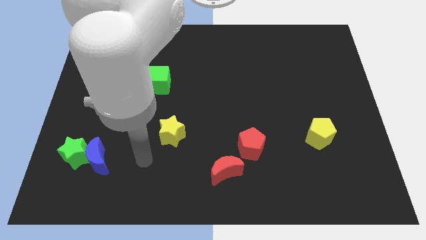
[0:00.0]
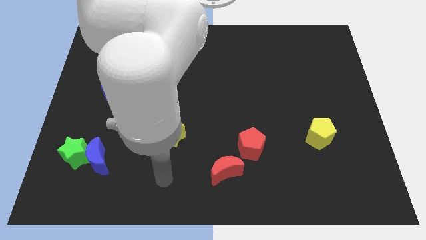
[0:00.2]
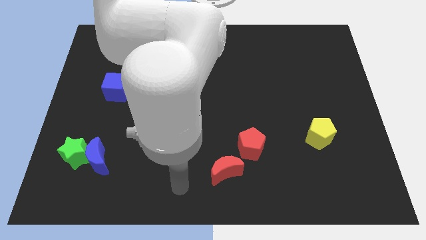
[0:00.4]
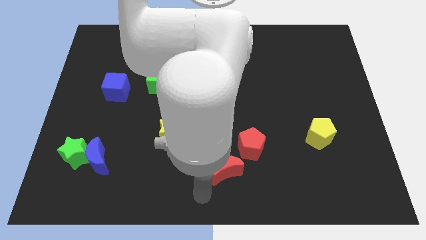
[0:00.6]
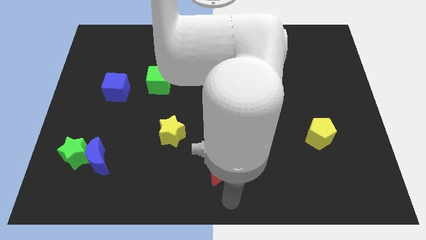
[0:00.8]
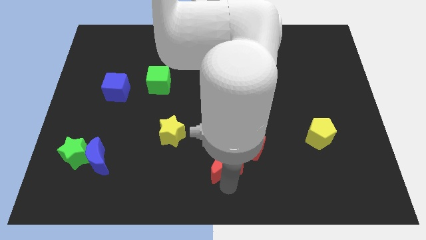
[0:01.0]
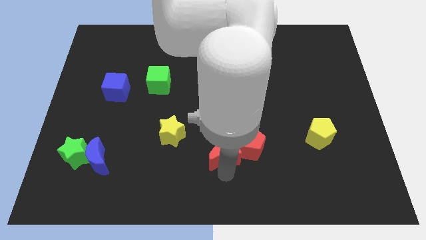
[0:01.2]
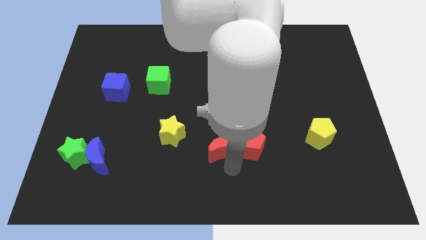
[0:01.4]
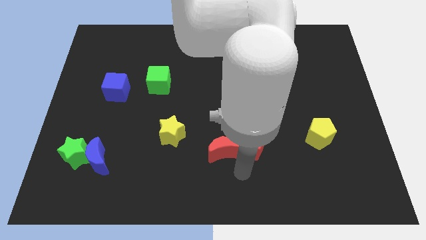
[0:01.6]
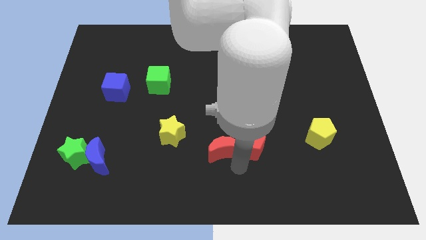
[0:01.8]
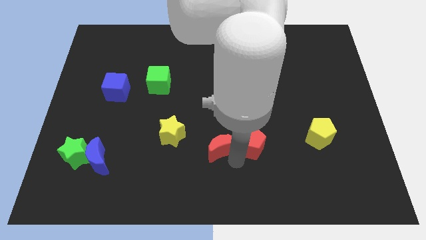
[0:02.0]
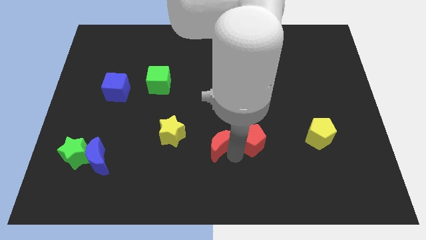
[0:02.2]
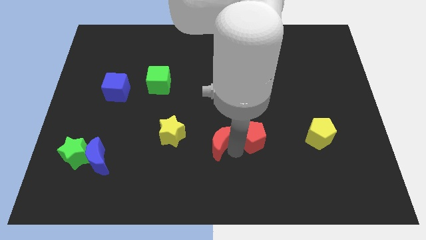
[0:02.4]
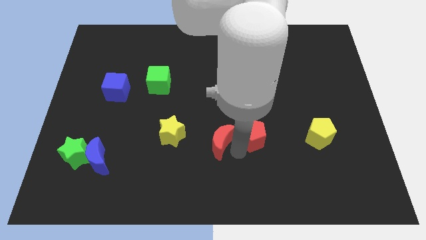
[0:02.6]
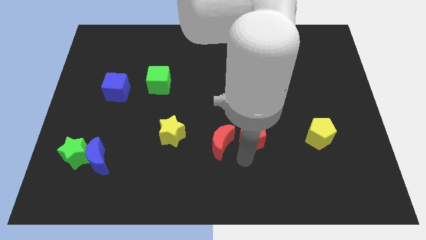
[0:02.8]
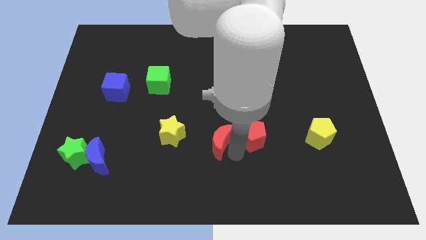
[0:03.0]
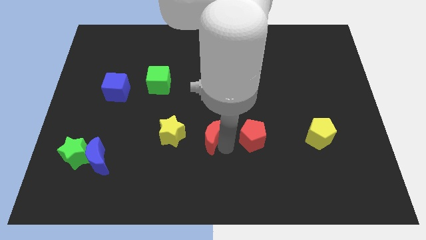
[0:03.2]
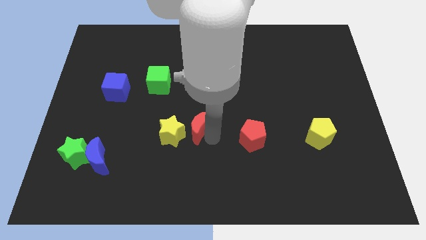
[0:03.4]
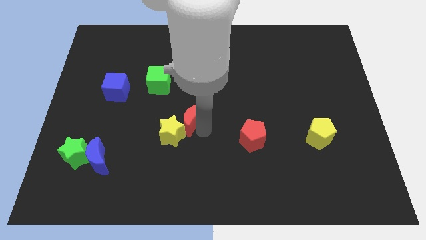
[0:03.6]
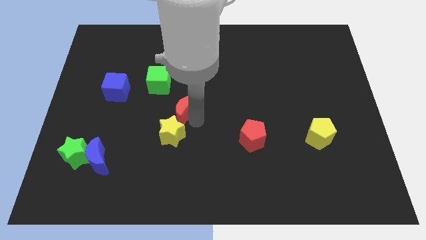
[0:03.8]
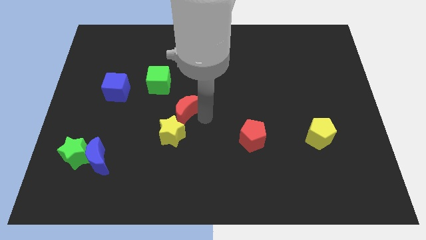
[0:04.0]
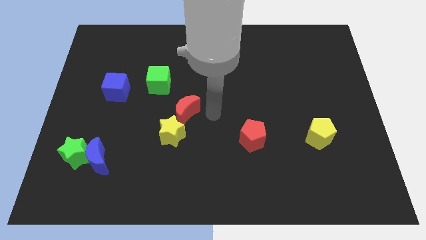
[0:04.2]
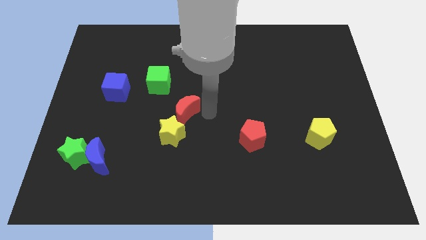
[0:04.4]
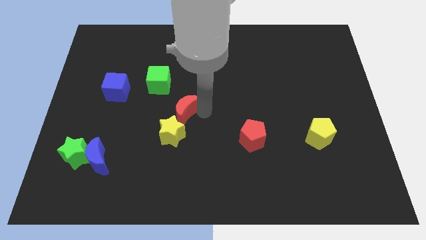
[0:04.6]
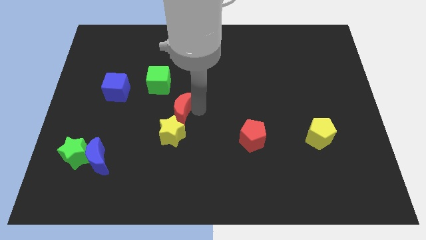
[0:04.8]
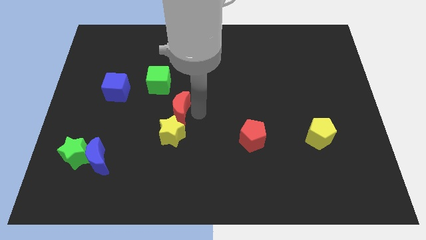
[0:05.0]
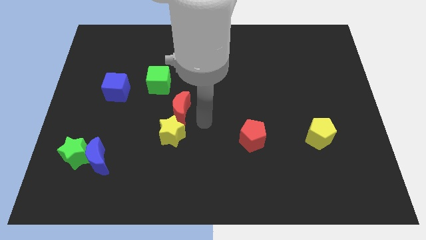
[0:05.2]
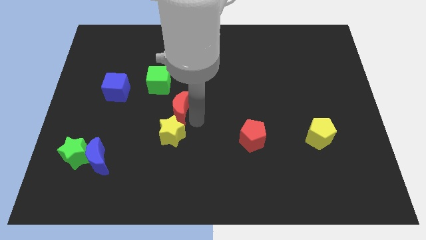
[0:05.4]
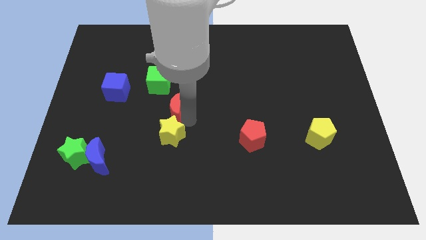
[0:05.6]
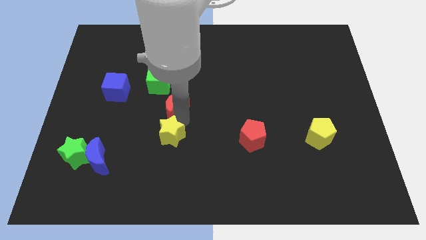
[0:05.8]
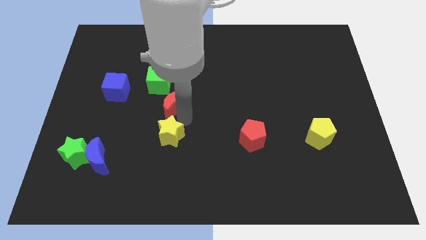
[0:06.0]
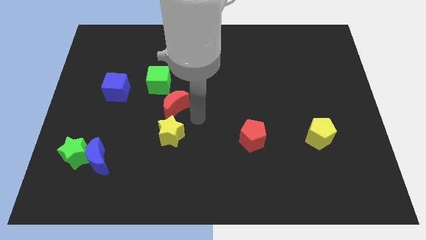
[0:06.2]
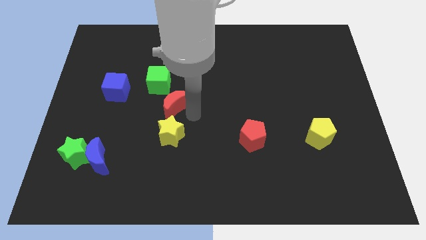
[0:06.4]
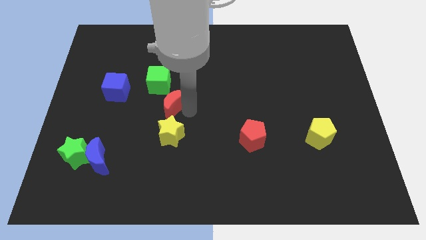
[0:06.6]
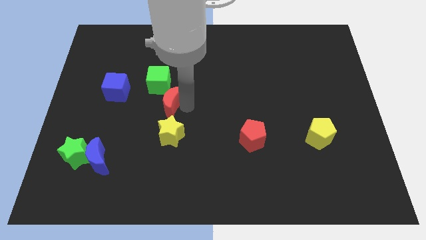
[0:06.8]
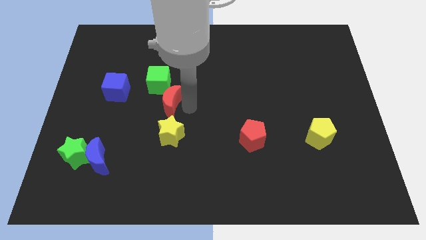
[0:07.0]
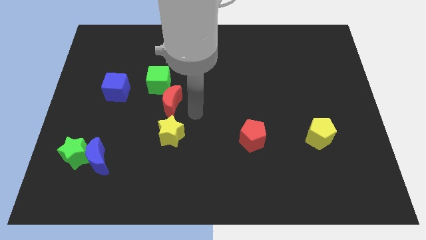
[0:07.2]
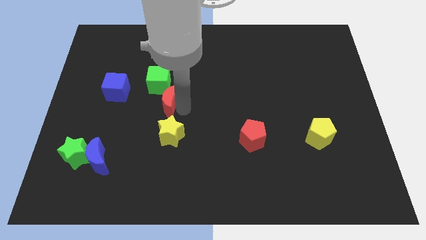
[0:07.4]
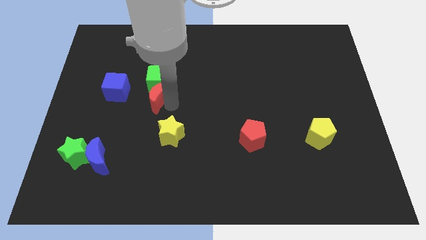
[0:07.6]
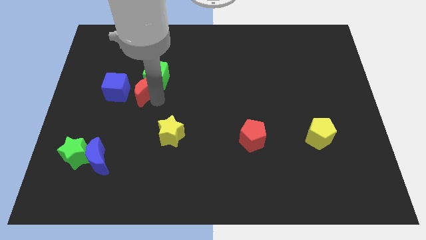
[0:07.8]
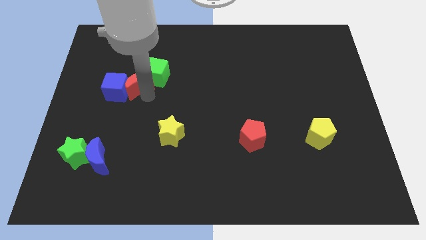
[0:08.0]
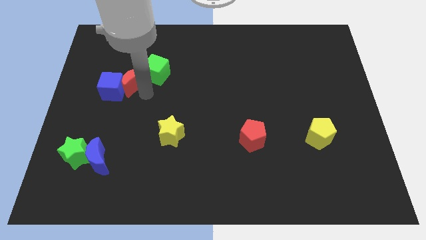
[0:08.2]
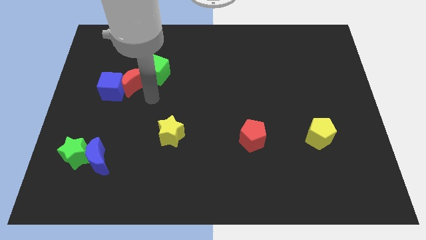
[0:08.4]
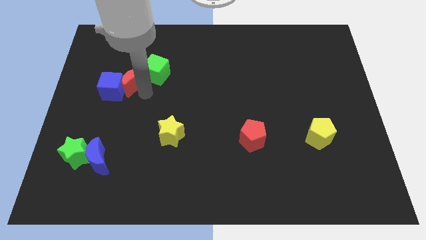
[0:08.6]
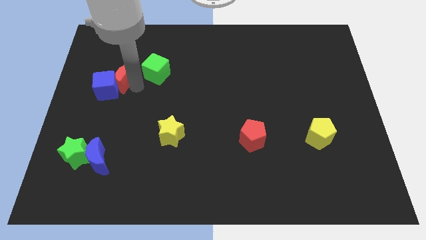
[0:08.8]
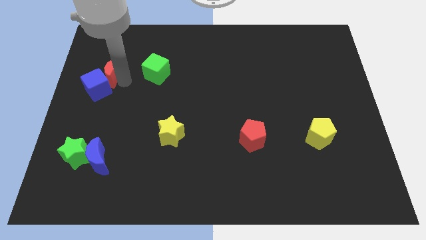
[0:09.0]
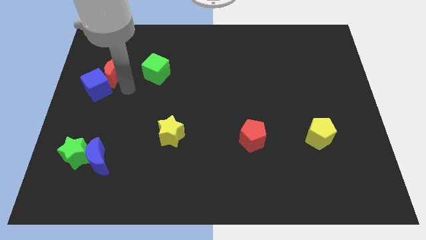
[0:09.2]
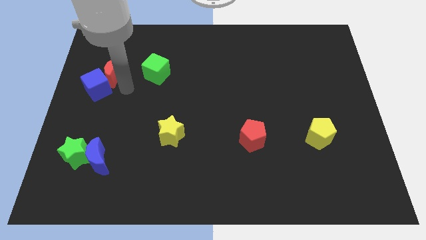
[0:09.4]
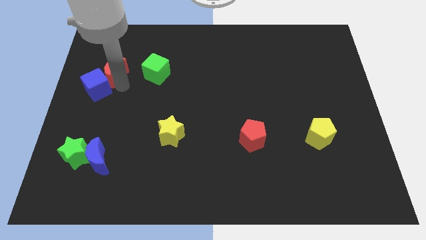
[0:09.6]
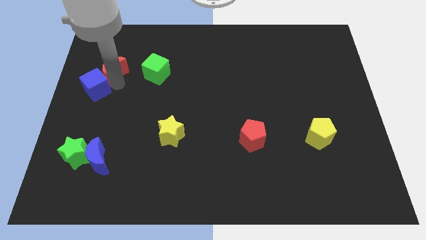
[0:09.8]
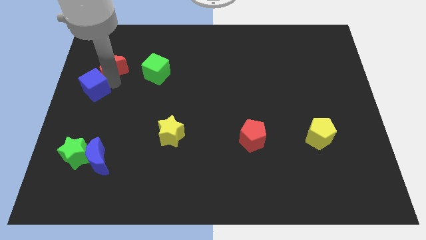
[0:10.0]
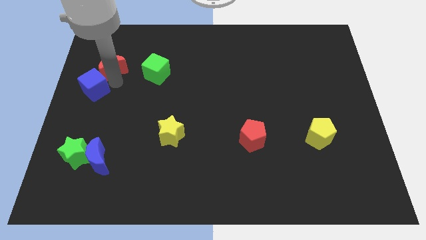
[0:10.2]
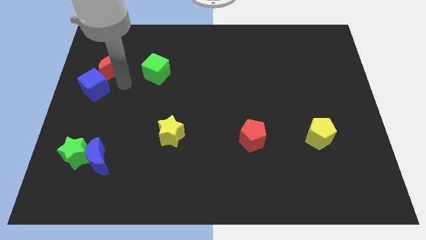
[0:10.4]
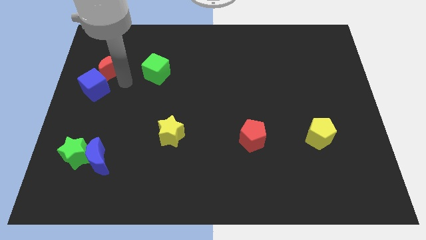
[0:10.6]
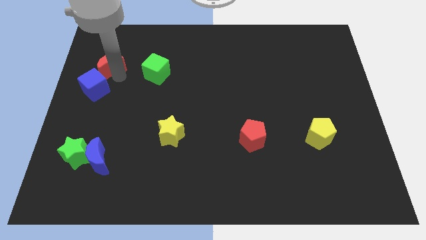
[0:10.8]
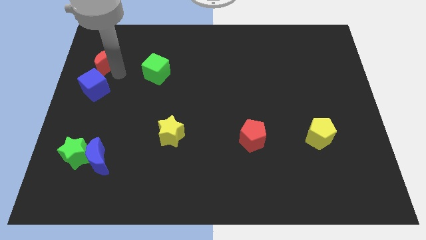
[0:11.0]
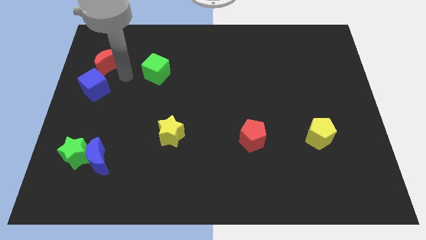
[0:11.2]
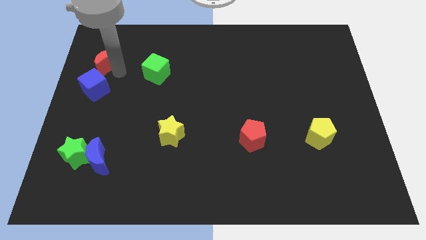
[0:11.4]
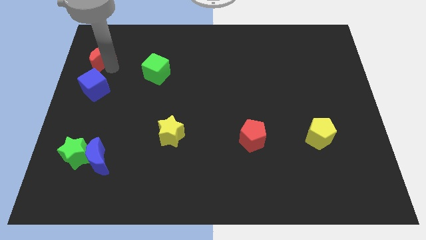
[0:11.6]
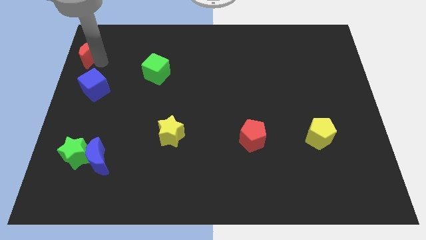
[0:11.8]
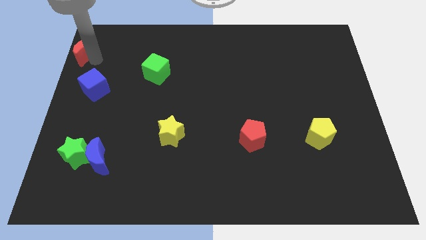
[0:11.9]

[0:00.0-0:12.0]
put the red moon to the upper left corner

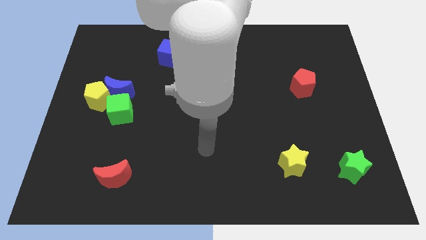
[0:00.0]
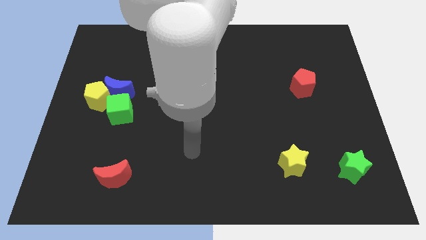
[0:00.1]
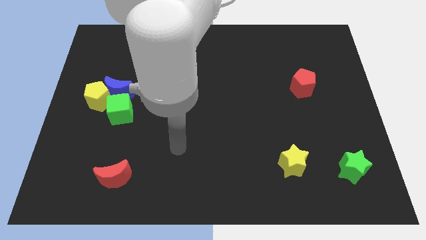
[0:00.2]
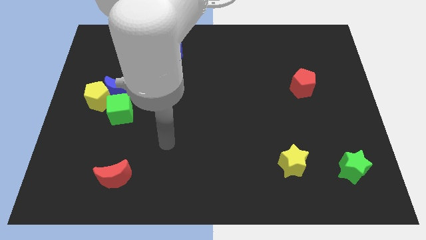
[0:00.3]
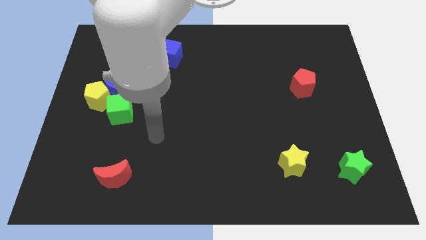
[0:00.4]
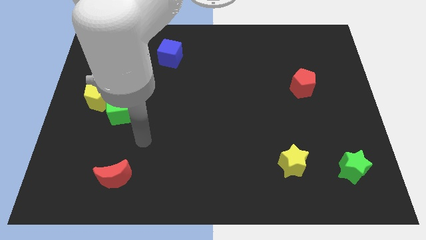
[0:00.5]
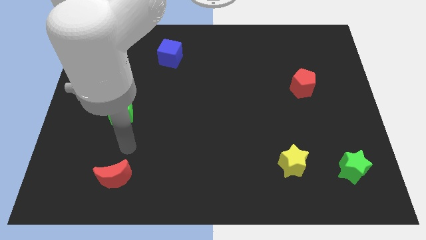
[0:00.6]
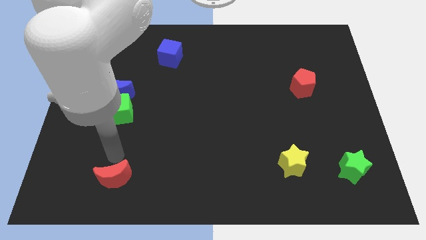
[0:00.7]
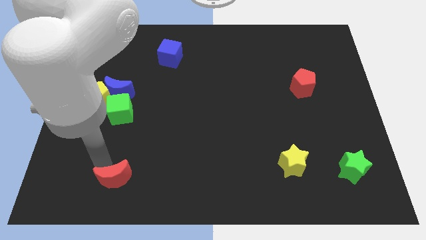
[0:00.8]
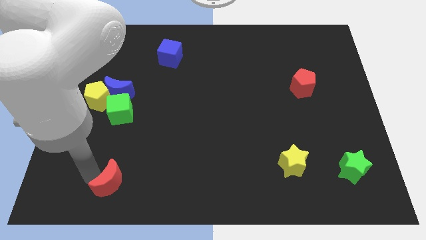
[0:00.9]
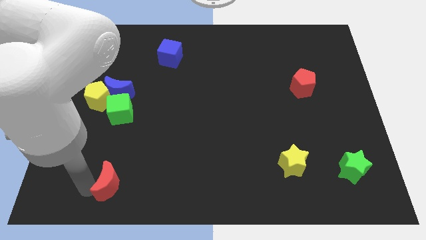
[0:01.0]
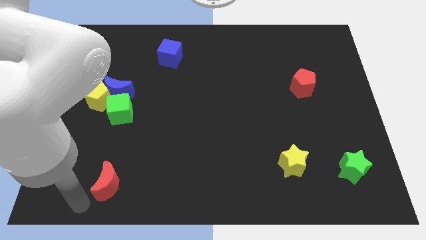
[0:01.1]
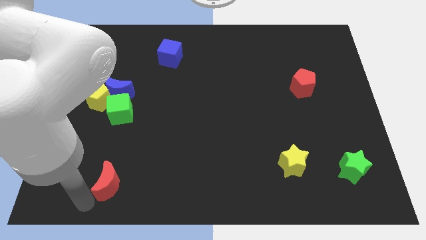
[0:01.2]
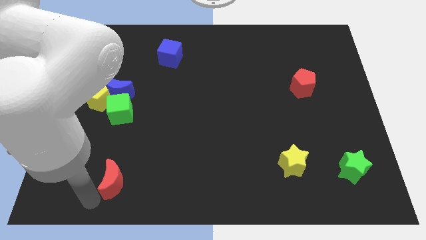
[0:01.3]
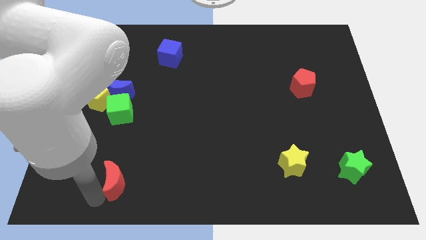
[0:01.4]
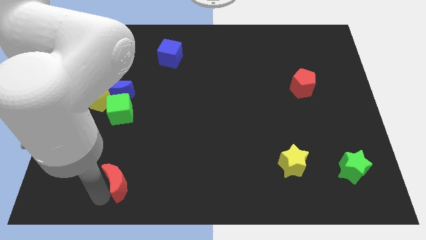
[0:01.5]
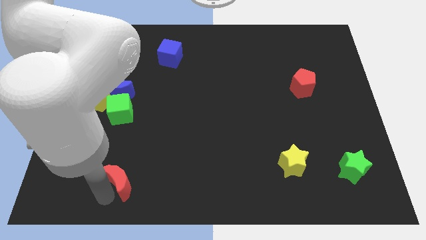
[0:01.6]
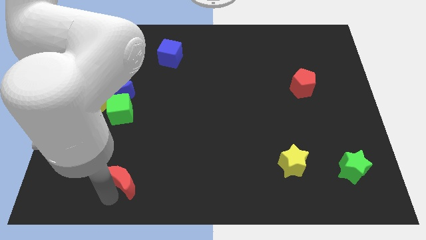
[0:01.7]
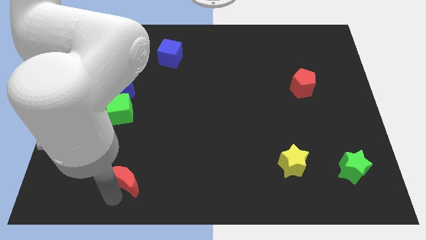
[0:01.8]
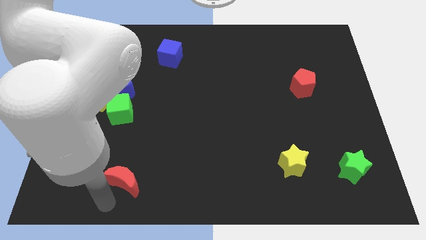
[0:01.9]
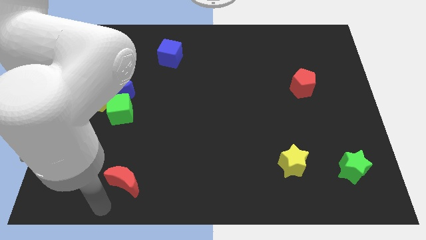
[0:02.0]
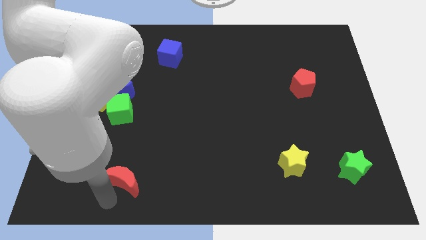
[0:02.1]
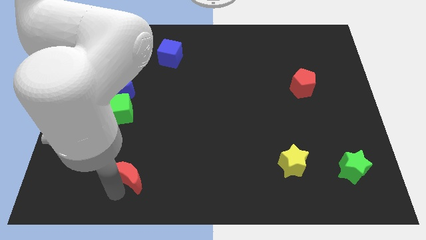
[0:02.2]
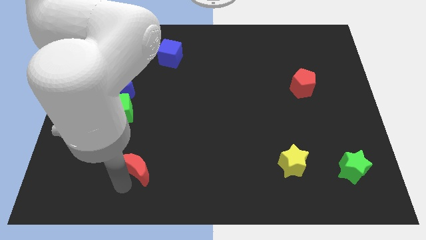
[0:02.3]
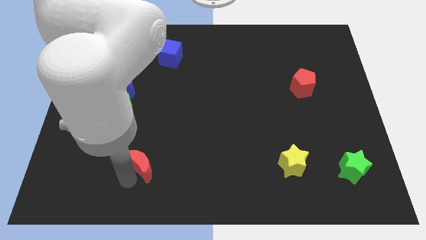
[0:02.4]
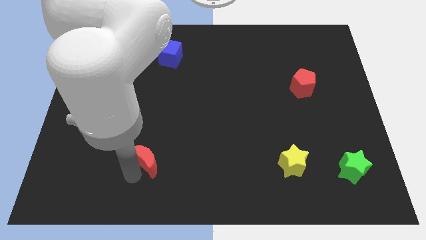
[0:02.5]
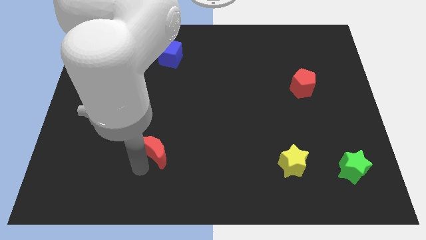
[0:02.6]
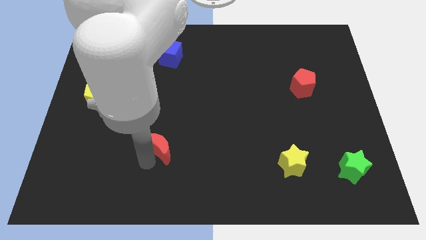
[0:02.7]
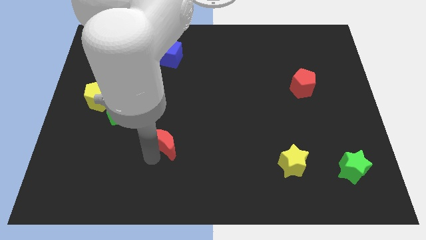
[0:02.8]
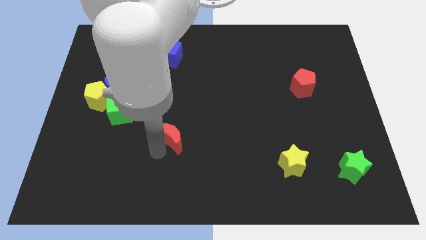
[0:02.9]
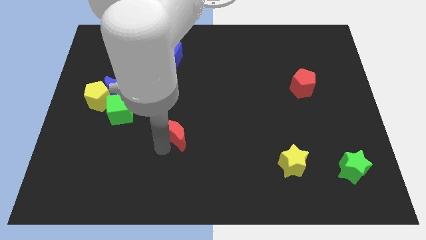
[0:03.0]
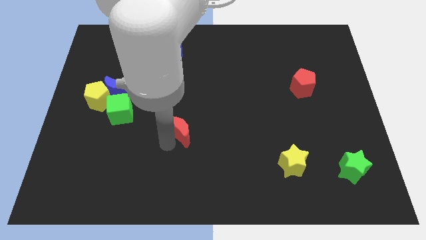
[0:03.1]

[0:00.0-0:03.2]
put the red moon to the center of the board
